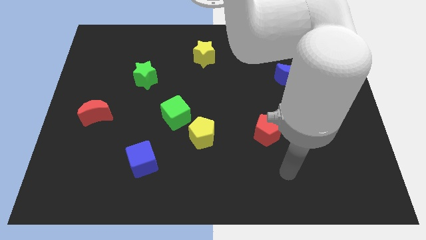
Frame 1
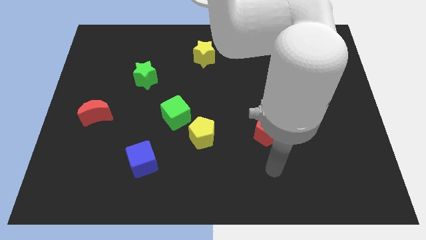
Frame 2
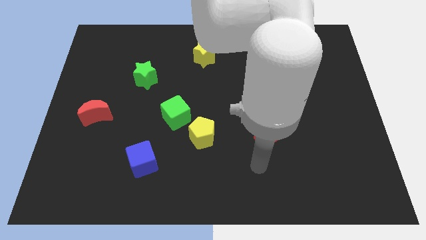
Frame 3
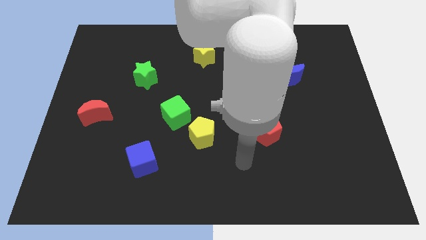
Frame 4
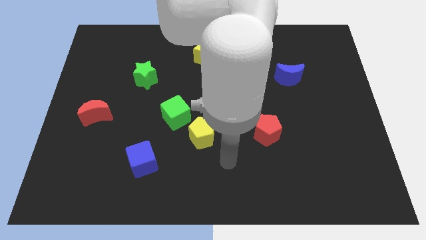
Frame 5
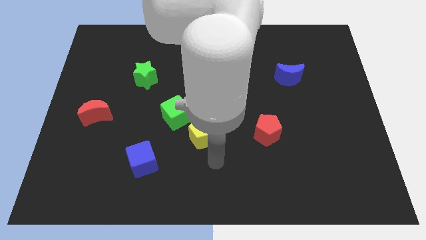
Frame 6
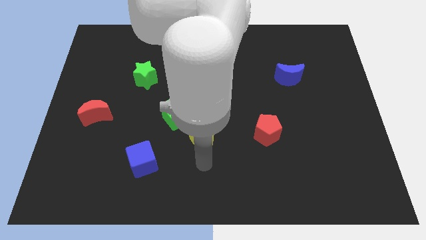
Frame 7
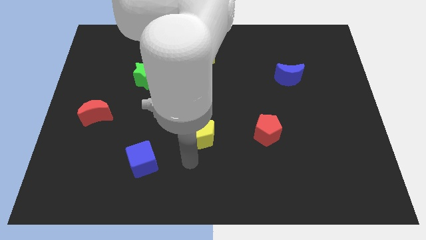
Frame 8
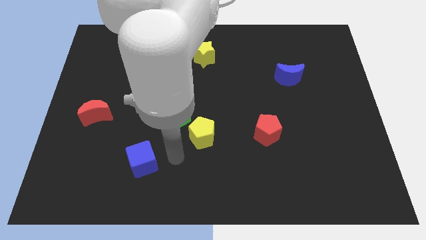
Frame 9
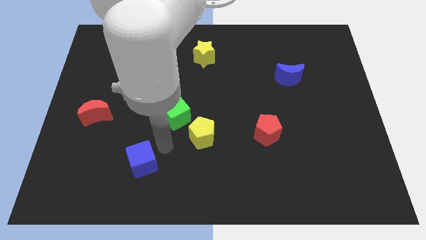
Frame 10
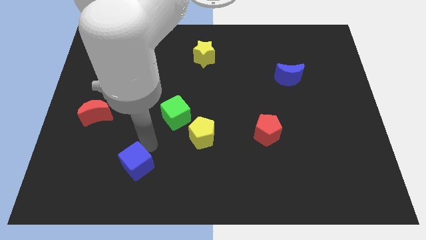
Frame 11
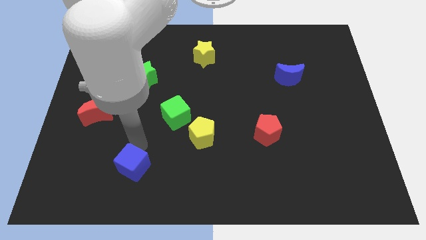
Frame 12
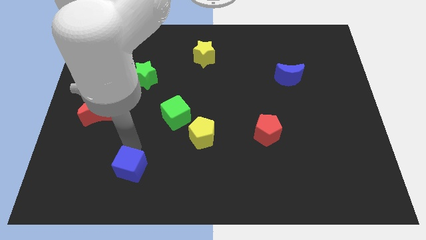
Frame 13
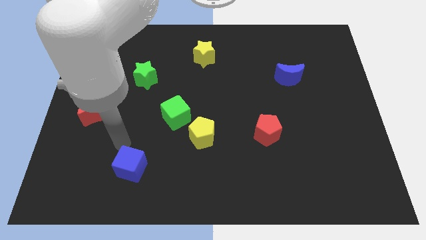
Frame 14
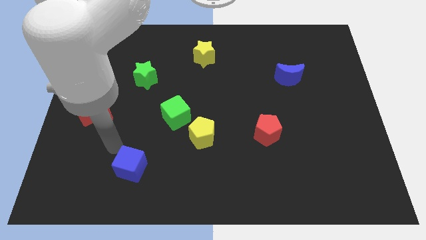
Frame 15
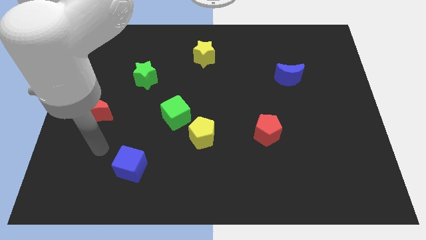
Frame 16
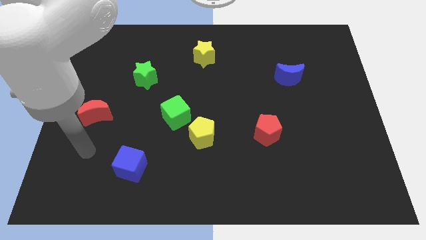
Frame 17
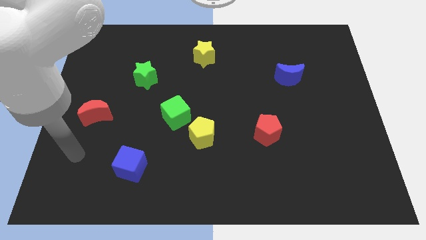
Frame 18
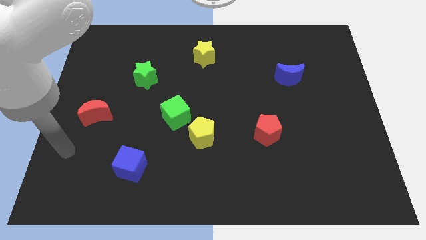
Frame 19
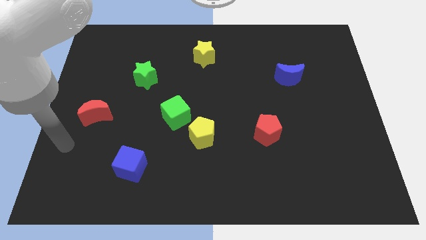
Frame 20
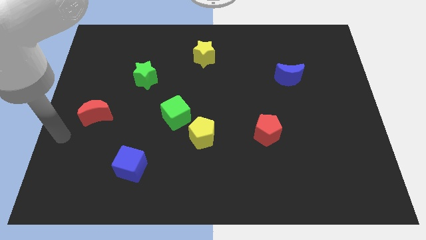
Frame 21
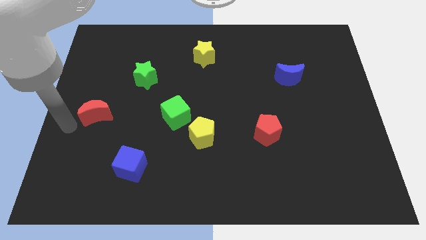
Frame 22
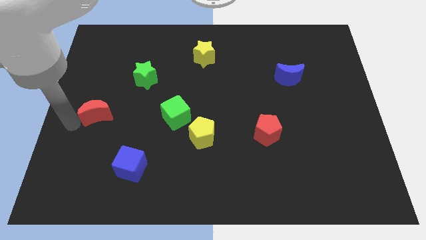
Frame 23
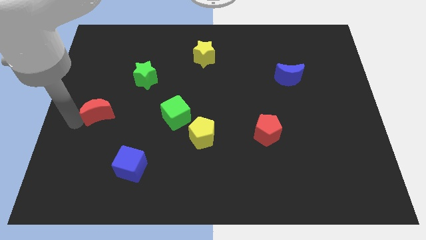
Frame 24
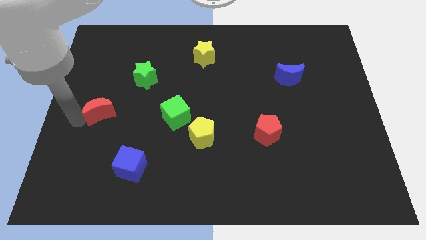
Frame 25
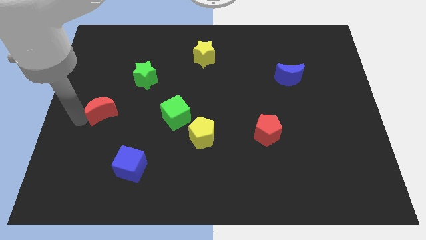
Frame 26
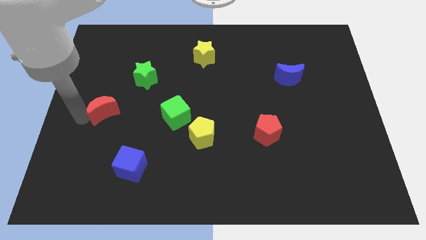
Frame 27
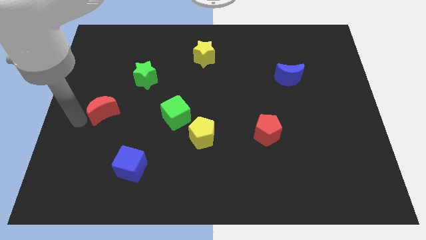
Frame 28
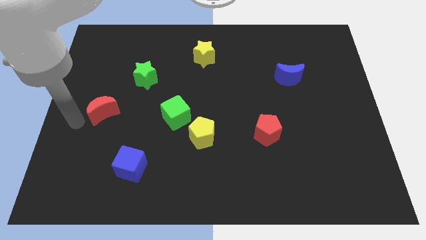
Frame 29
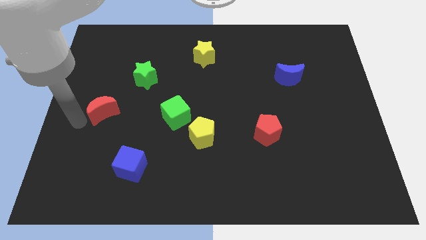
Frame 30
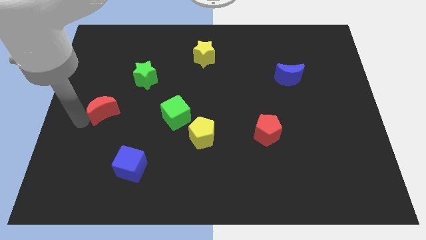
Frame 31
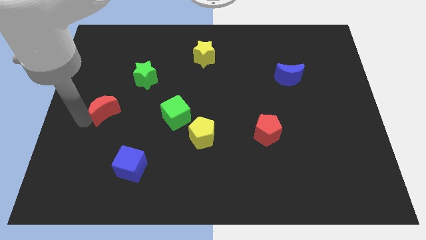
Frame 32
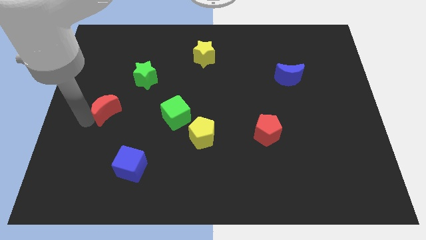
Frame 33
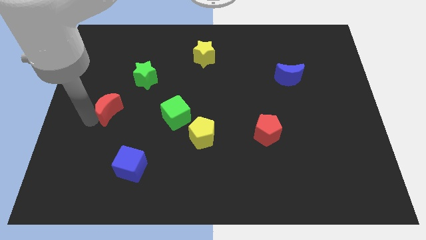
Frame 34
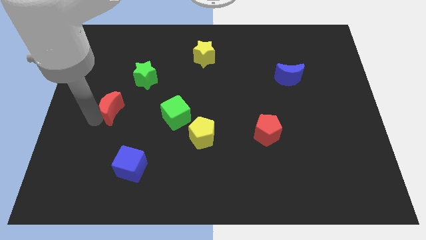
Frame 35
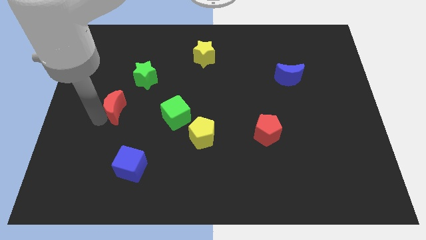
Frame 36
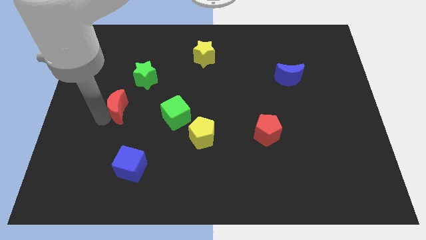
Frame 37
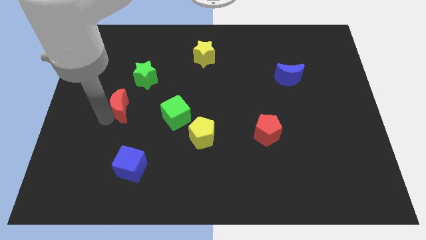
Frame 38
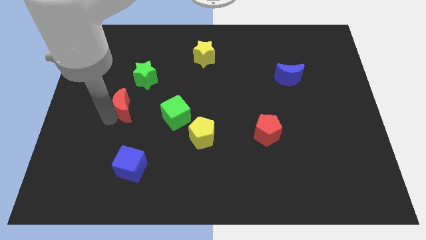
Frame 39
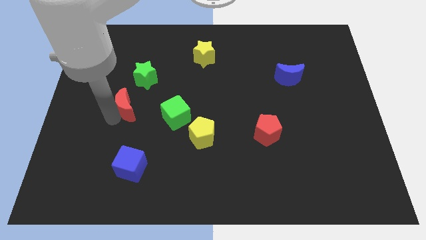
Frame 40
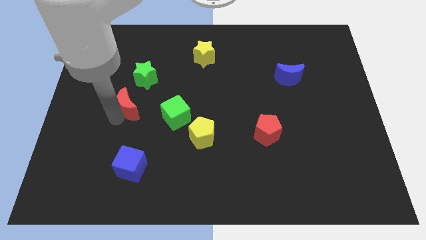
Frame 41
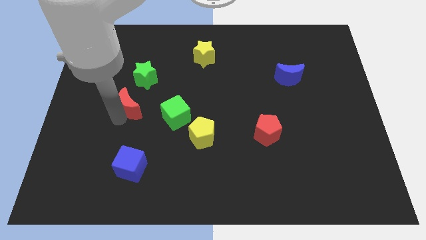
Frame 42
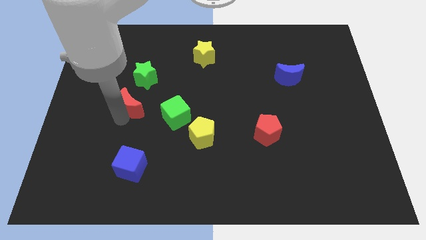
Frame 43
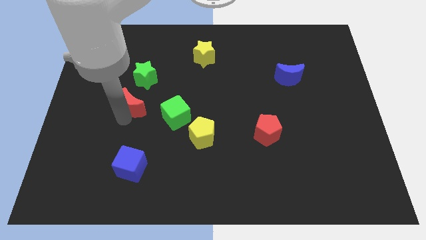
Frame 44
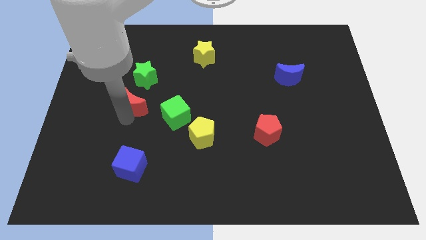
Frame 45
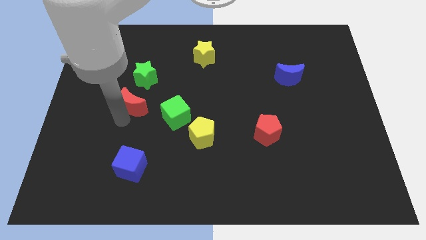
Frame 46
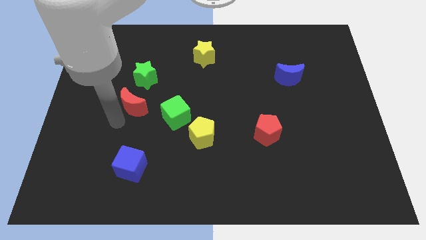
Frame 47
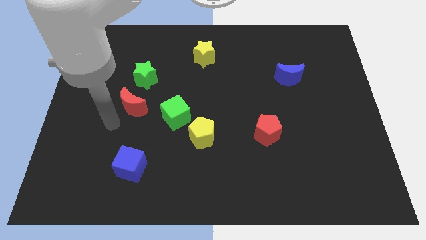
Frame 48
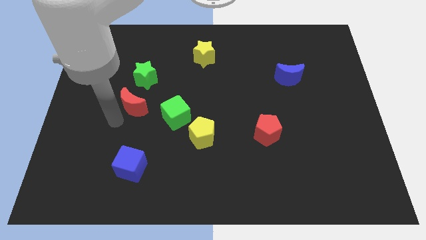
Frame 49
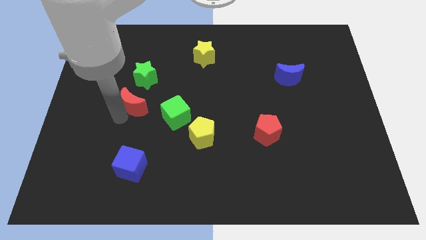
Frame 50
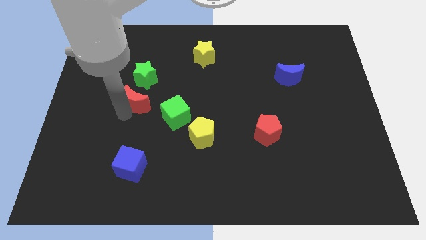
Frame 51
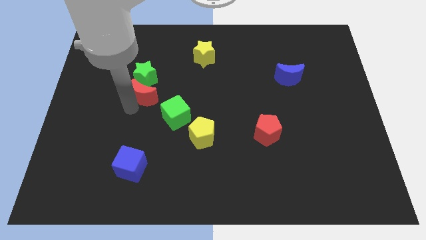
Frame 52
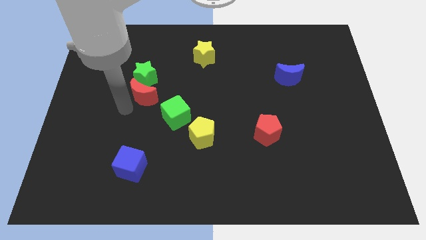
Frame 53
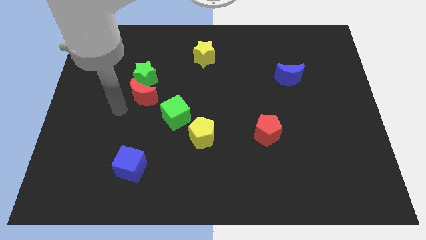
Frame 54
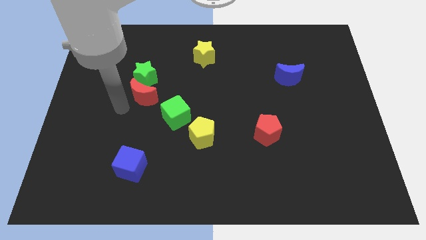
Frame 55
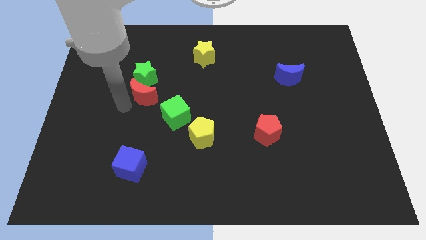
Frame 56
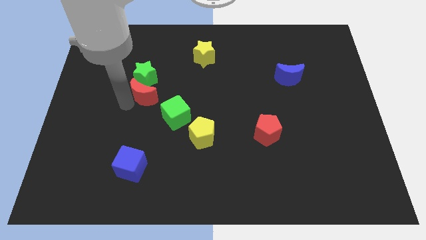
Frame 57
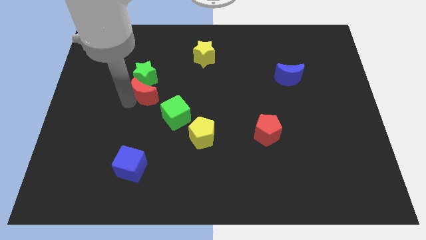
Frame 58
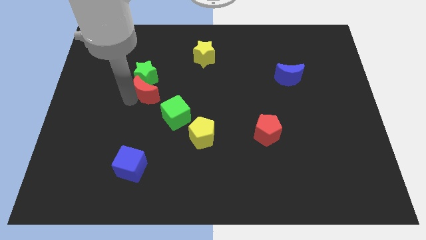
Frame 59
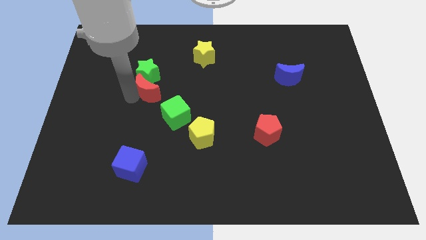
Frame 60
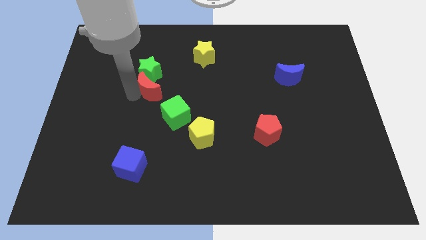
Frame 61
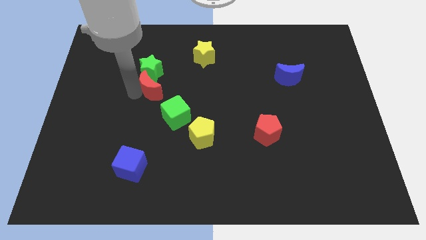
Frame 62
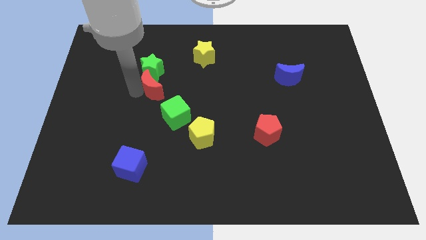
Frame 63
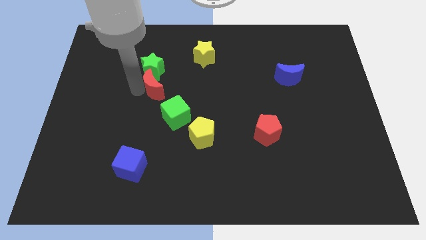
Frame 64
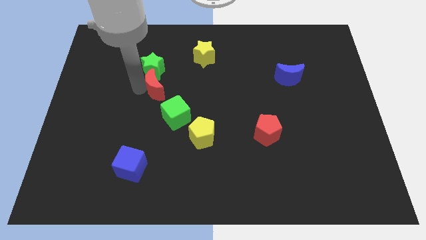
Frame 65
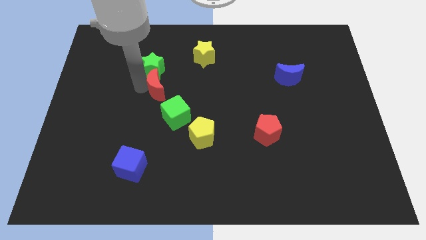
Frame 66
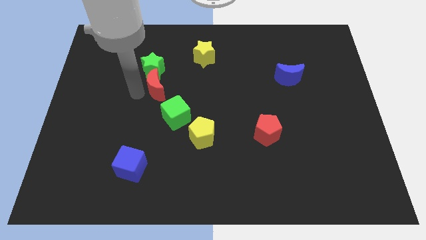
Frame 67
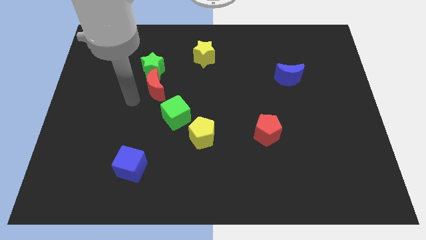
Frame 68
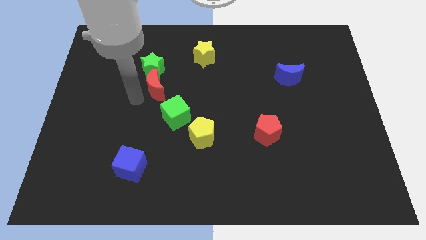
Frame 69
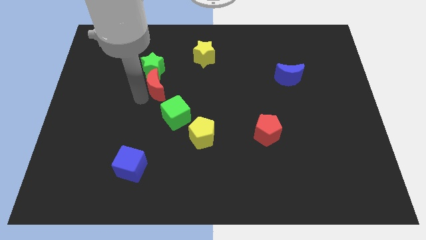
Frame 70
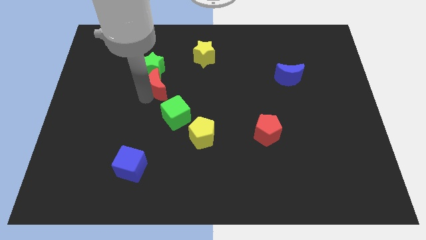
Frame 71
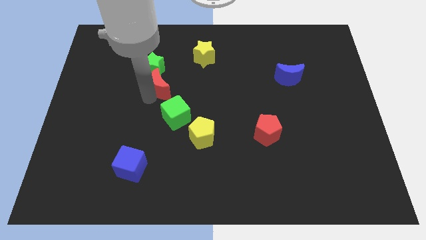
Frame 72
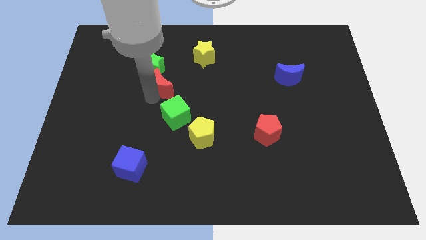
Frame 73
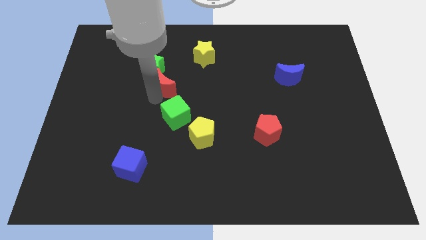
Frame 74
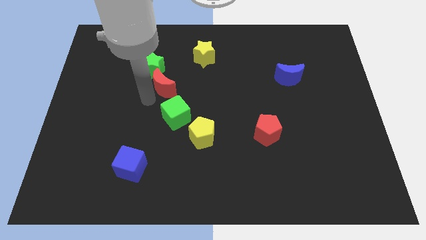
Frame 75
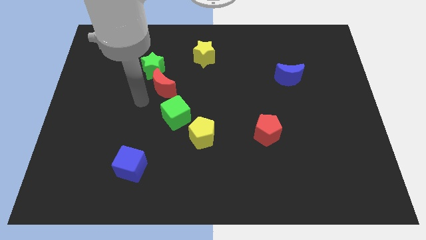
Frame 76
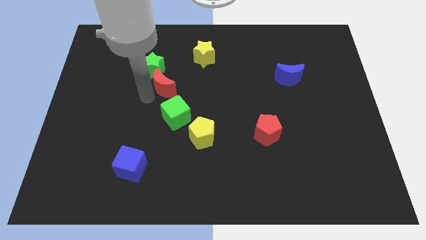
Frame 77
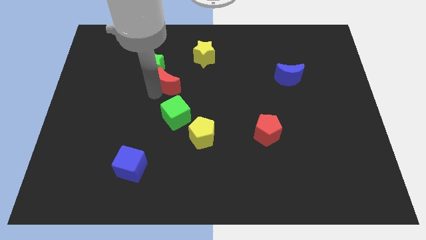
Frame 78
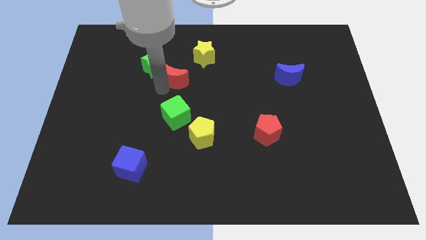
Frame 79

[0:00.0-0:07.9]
put the red moon to the right side of the green star
